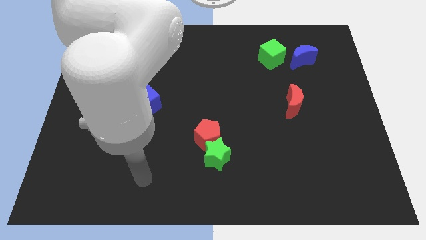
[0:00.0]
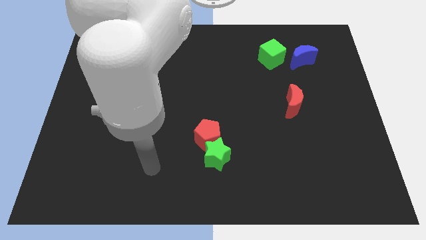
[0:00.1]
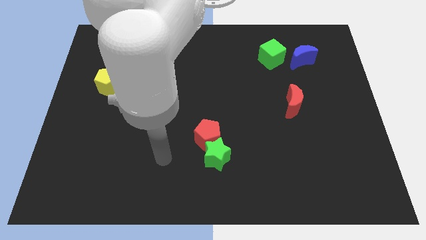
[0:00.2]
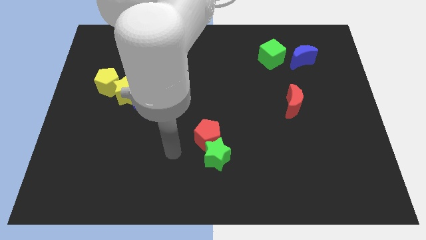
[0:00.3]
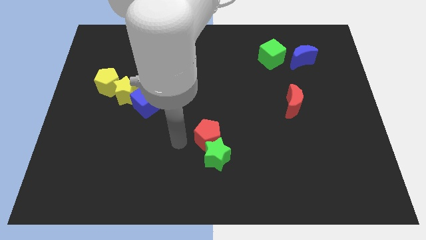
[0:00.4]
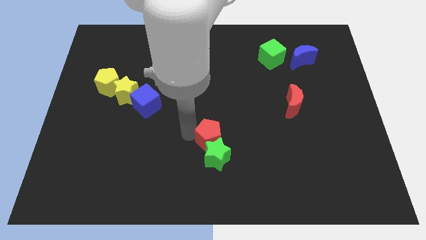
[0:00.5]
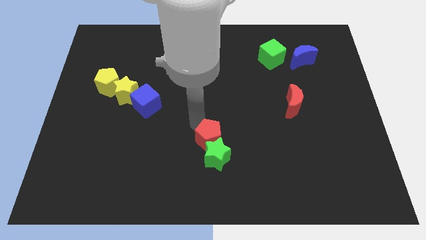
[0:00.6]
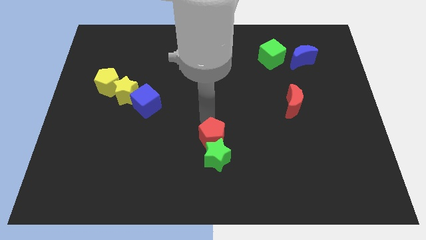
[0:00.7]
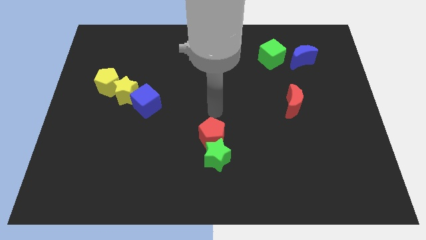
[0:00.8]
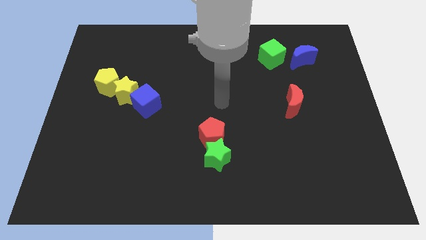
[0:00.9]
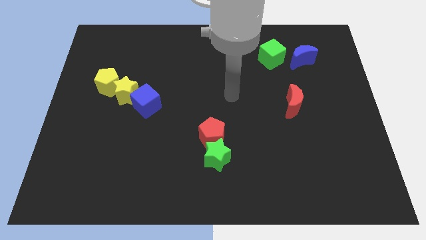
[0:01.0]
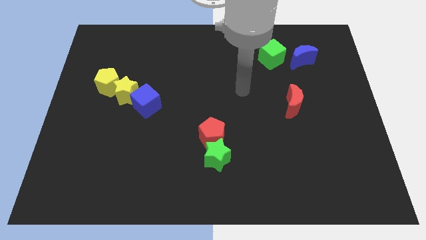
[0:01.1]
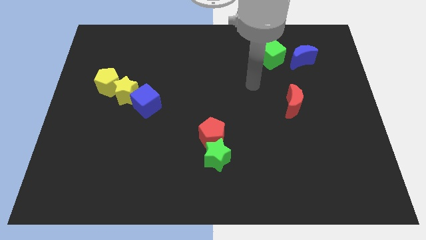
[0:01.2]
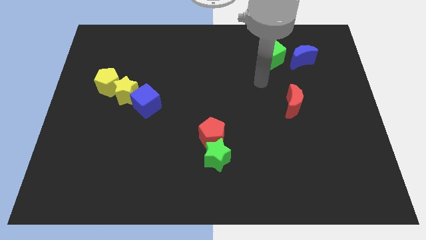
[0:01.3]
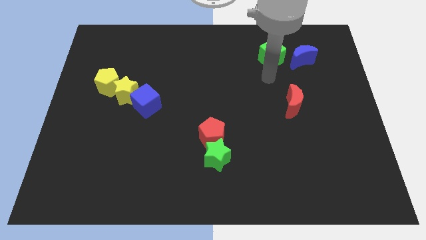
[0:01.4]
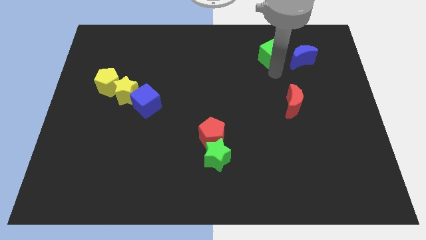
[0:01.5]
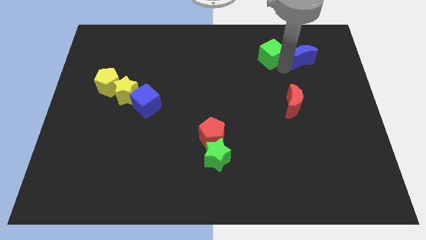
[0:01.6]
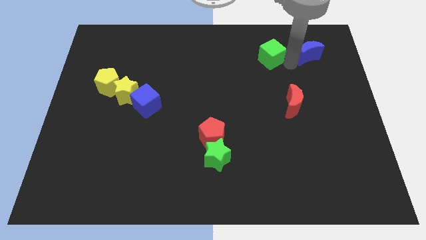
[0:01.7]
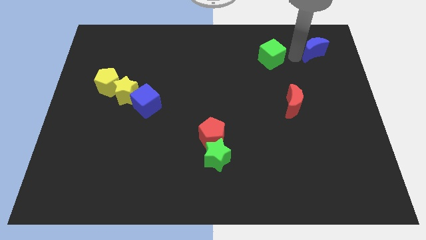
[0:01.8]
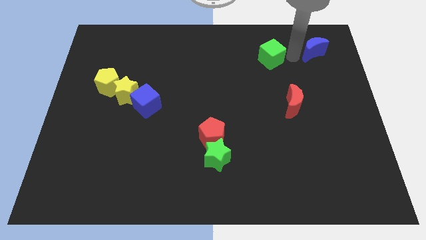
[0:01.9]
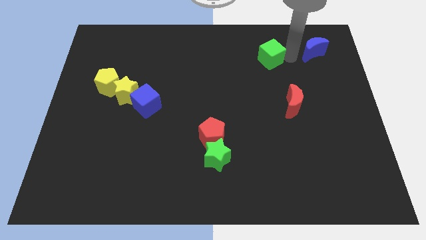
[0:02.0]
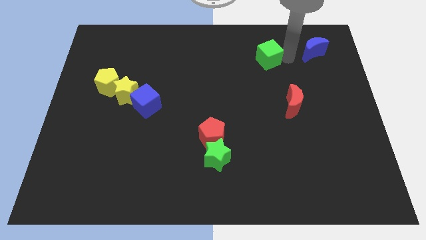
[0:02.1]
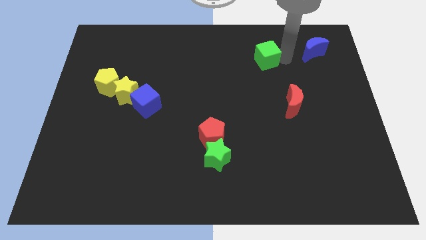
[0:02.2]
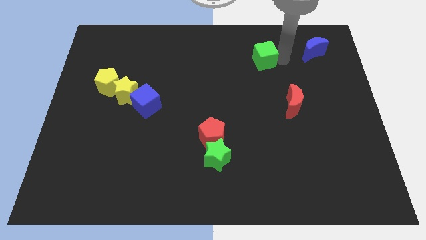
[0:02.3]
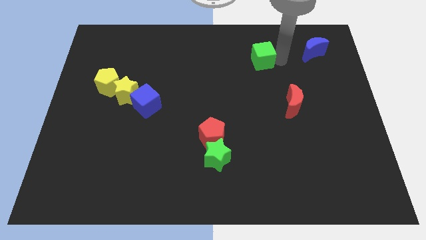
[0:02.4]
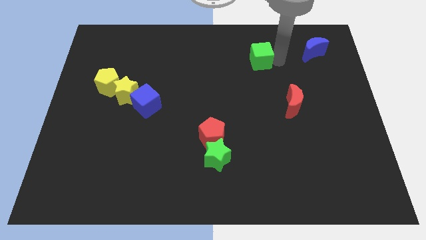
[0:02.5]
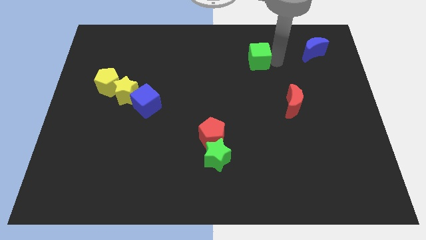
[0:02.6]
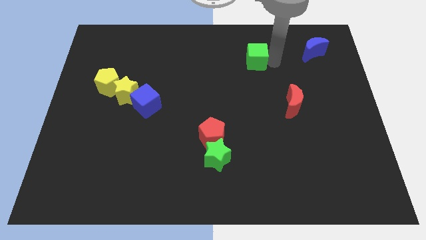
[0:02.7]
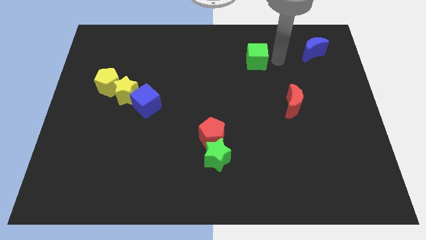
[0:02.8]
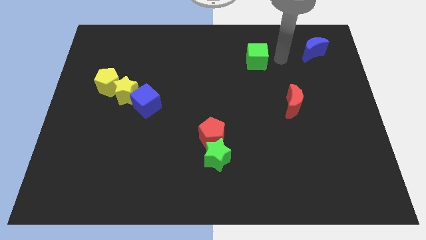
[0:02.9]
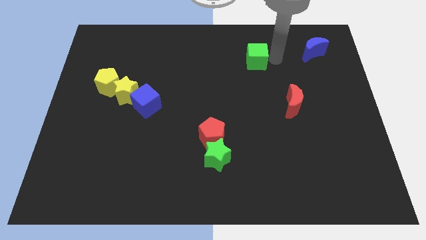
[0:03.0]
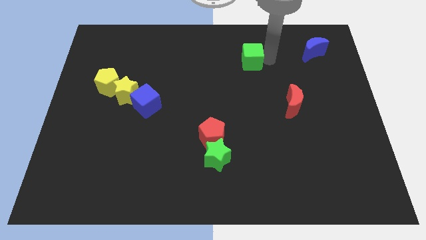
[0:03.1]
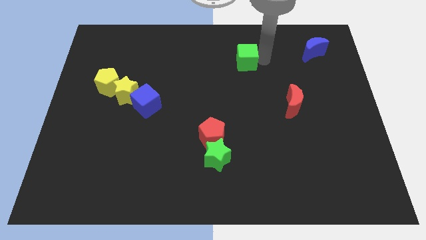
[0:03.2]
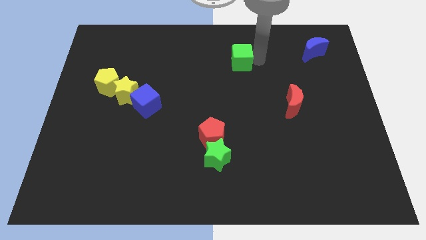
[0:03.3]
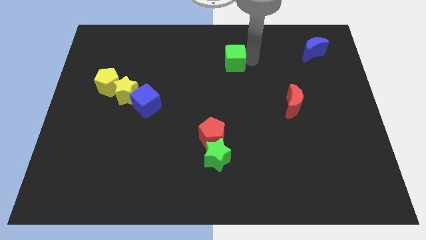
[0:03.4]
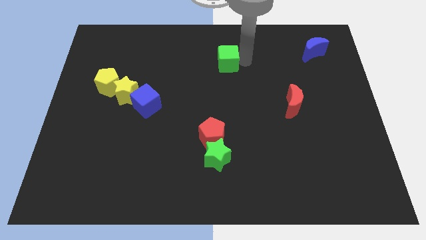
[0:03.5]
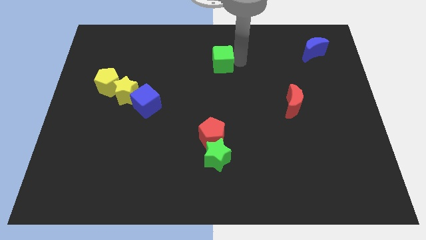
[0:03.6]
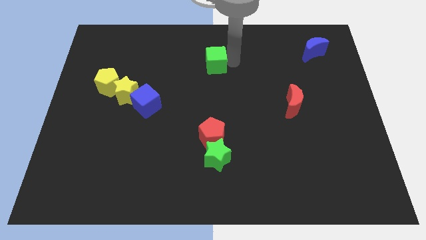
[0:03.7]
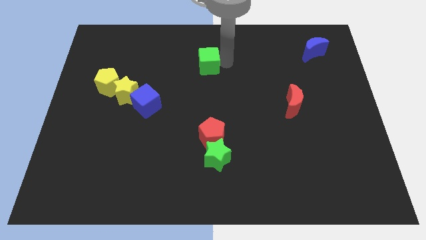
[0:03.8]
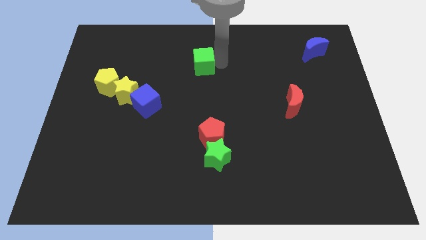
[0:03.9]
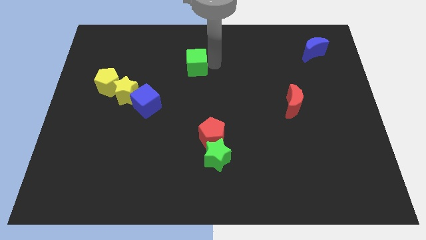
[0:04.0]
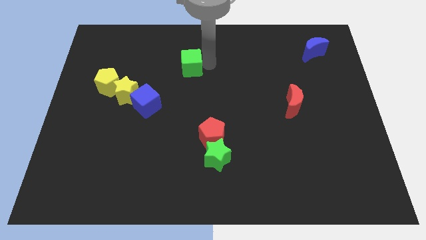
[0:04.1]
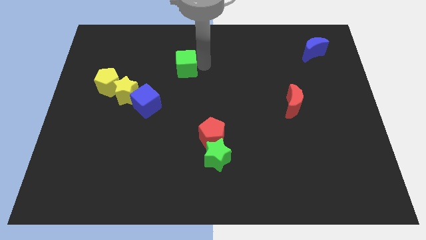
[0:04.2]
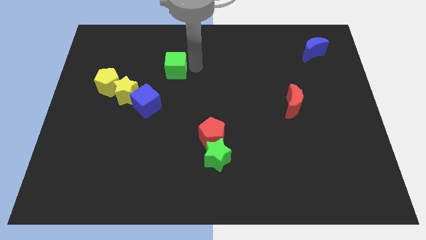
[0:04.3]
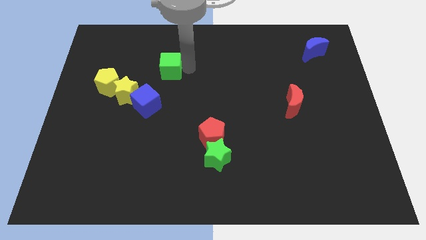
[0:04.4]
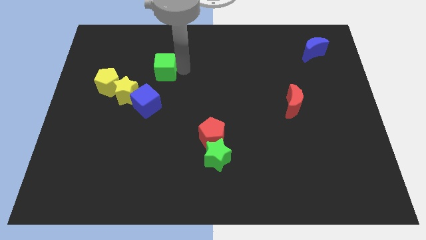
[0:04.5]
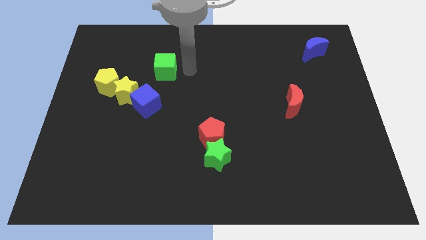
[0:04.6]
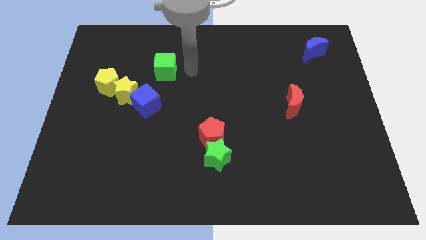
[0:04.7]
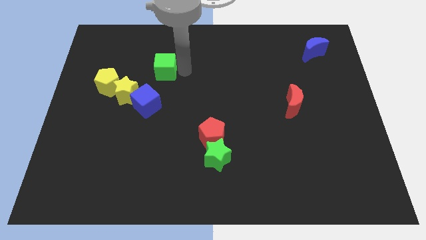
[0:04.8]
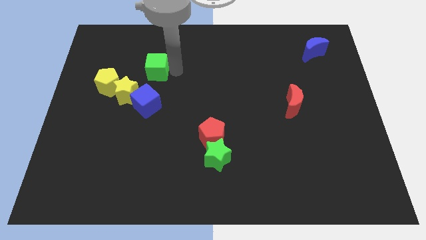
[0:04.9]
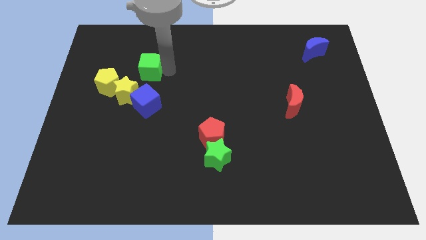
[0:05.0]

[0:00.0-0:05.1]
push the green cube diagonally up and to the right of the yellow pentagon

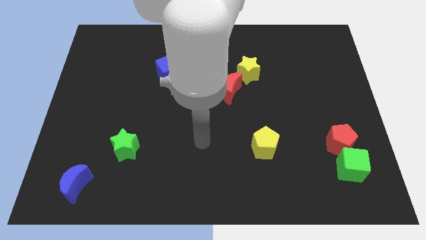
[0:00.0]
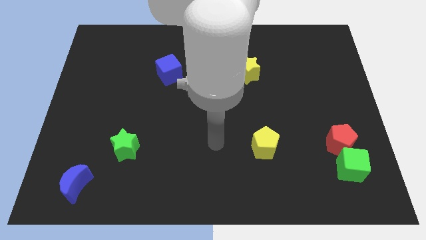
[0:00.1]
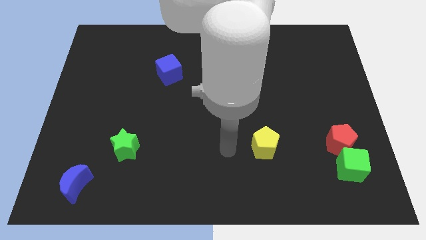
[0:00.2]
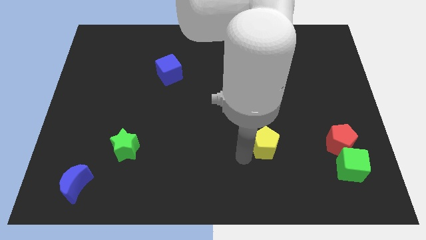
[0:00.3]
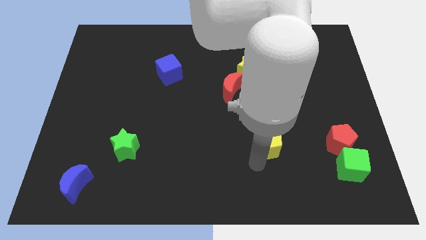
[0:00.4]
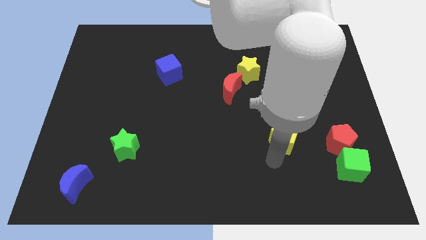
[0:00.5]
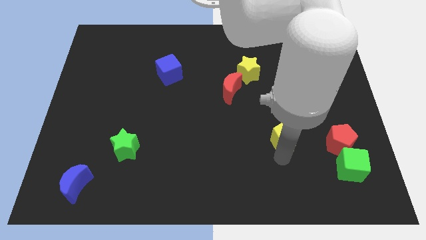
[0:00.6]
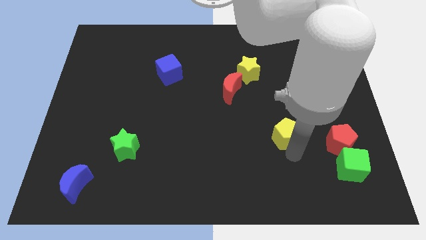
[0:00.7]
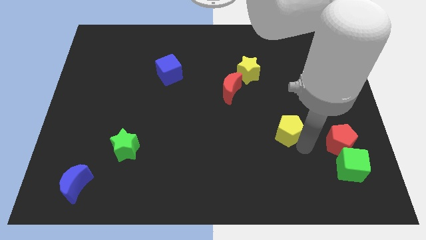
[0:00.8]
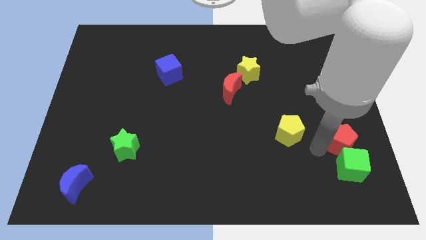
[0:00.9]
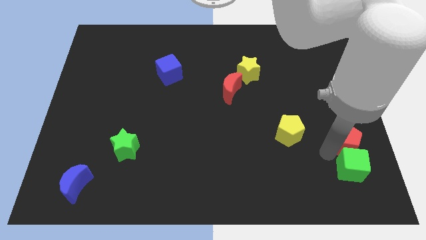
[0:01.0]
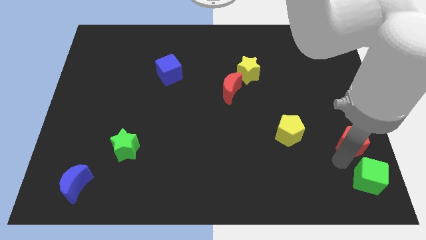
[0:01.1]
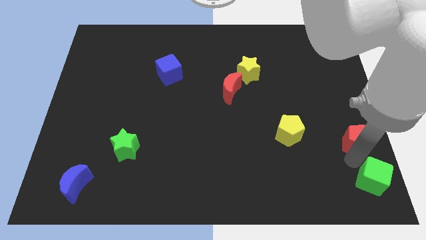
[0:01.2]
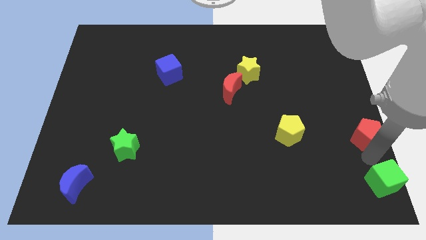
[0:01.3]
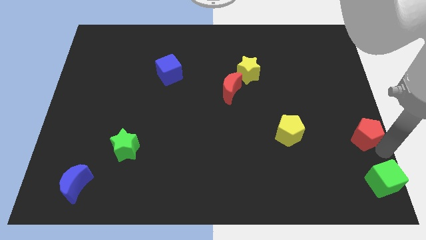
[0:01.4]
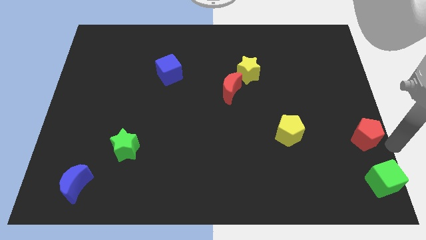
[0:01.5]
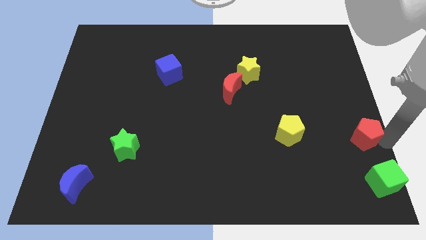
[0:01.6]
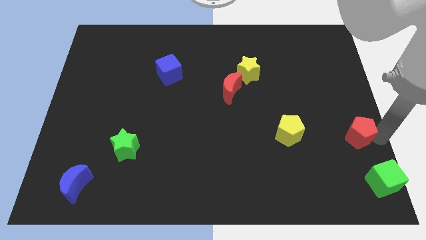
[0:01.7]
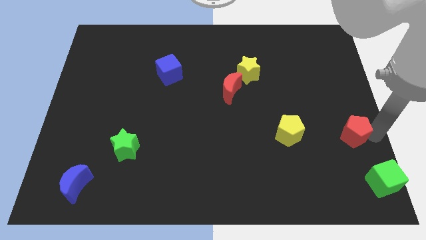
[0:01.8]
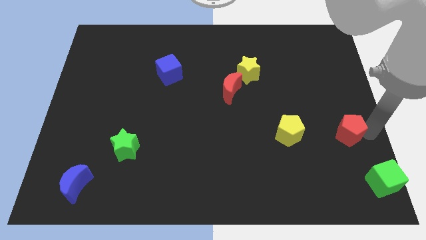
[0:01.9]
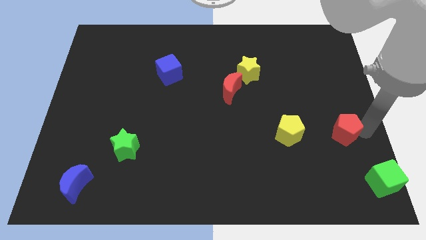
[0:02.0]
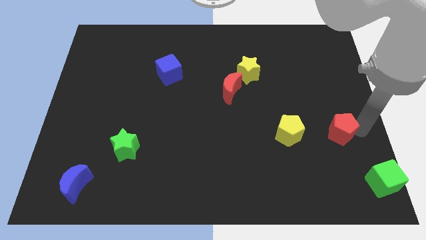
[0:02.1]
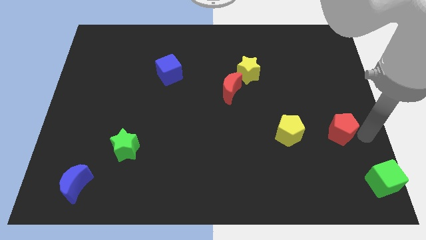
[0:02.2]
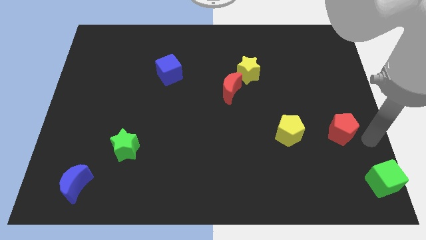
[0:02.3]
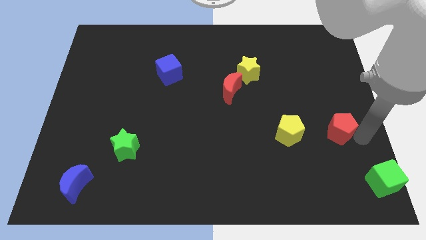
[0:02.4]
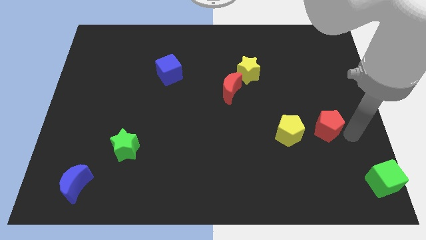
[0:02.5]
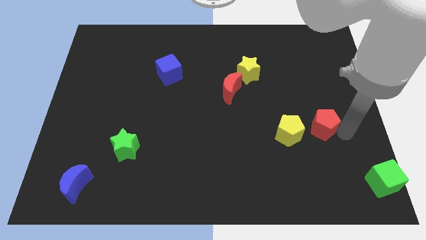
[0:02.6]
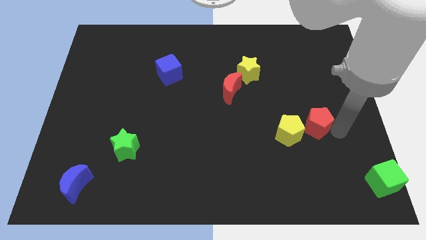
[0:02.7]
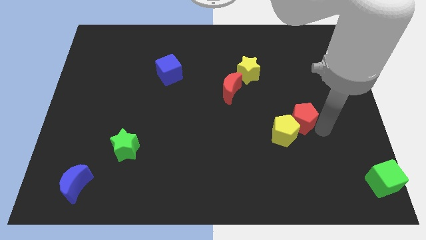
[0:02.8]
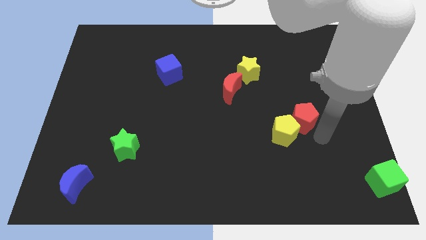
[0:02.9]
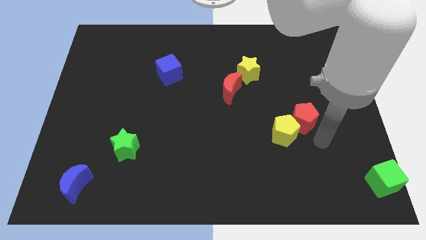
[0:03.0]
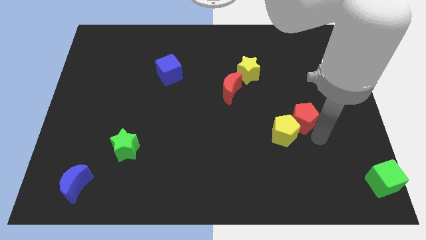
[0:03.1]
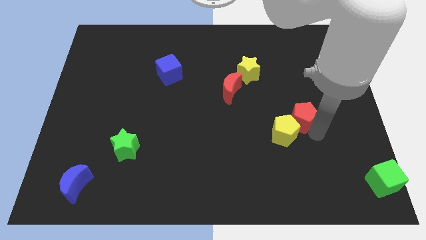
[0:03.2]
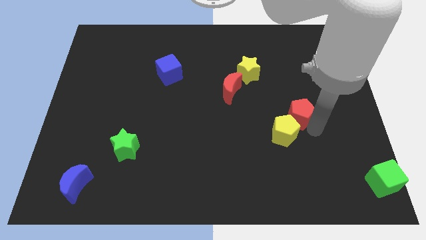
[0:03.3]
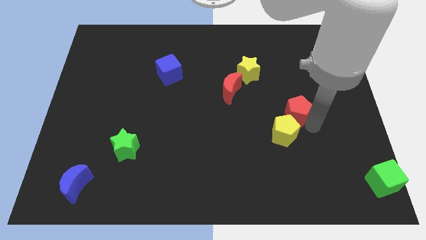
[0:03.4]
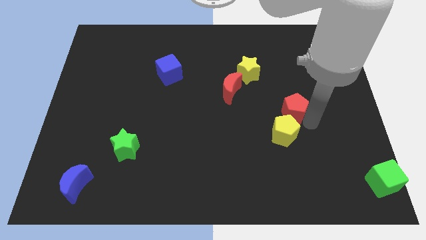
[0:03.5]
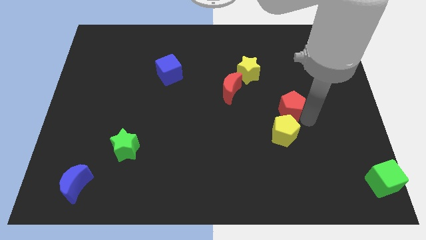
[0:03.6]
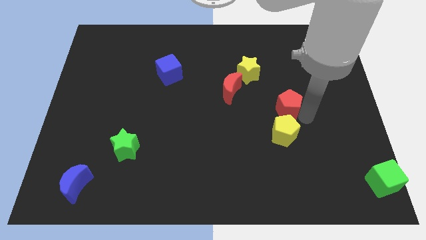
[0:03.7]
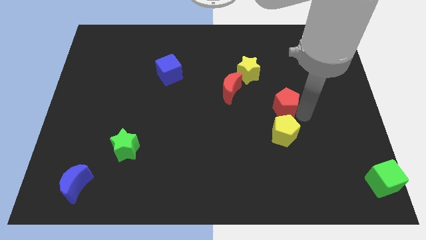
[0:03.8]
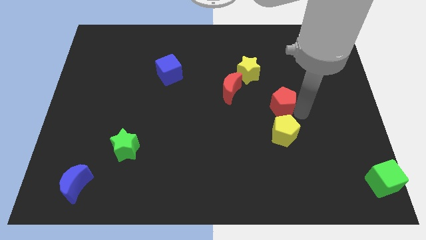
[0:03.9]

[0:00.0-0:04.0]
push the red pentagon to the right side of the red moon
